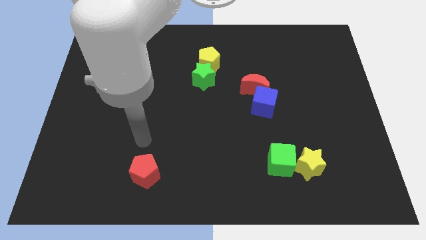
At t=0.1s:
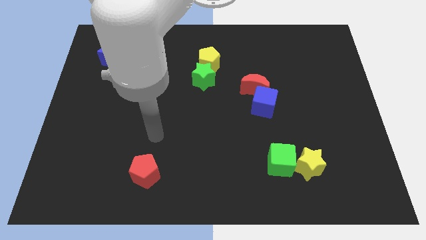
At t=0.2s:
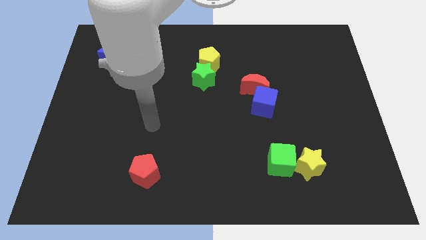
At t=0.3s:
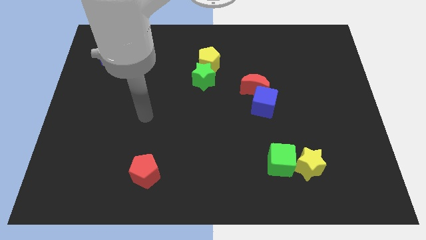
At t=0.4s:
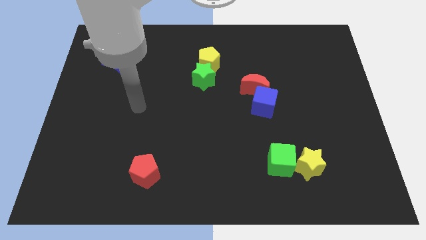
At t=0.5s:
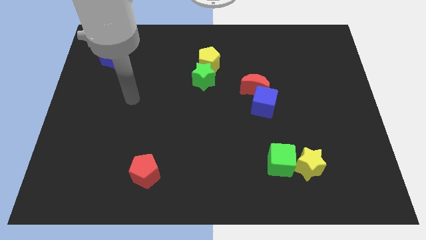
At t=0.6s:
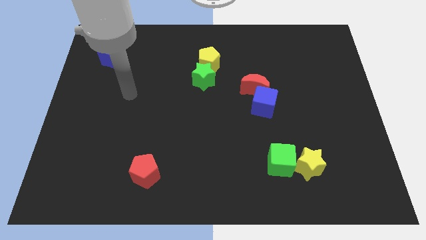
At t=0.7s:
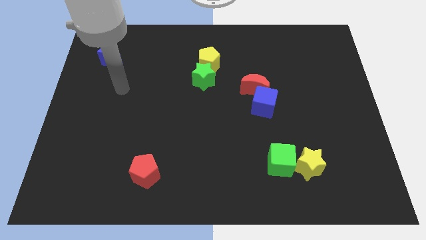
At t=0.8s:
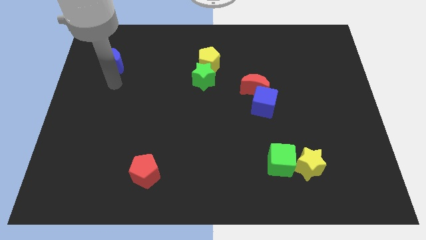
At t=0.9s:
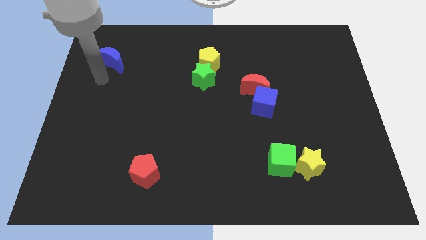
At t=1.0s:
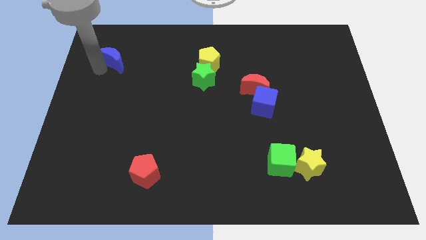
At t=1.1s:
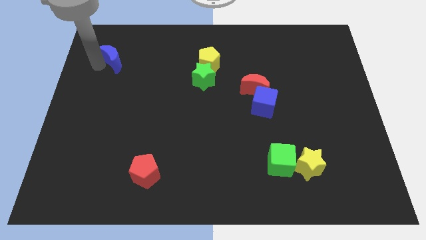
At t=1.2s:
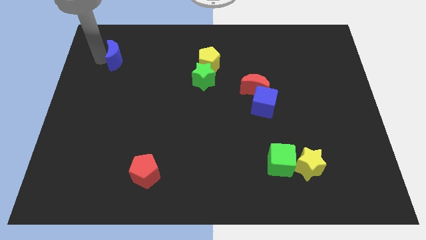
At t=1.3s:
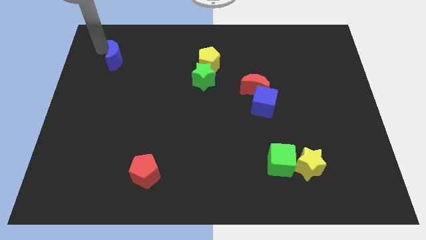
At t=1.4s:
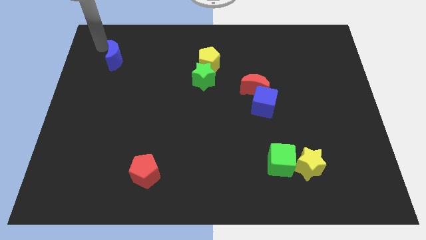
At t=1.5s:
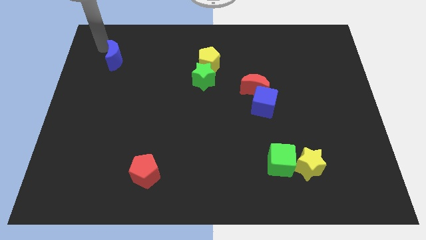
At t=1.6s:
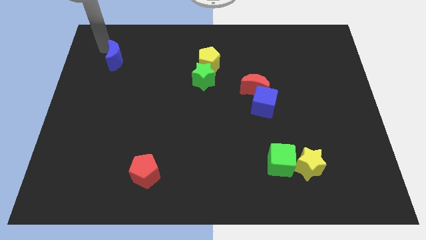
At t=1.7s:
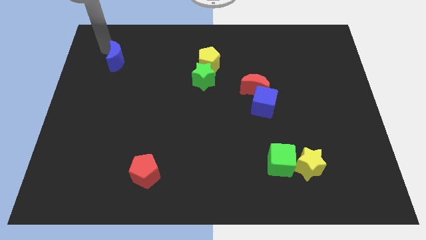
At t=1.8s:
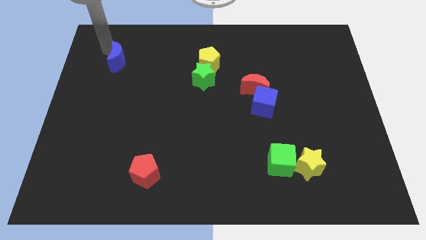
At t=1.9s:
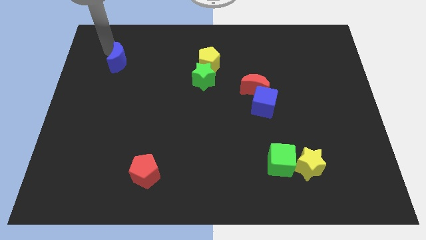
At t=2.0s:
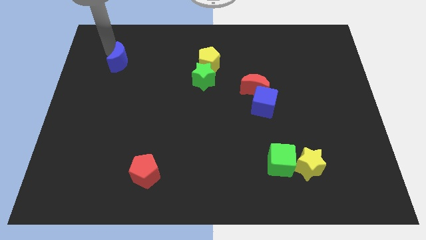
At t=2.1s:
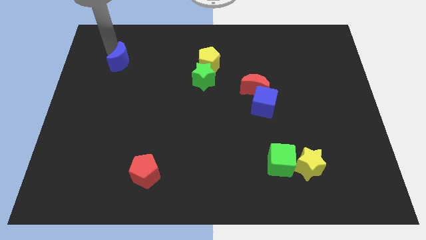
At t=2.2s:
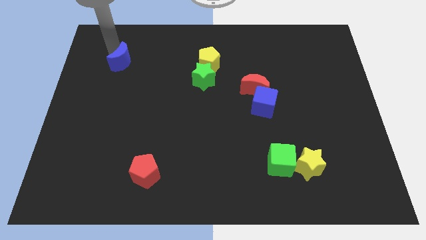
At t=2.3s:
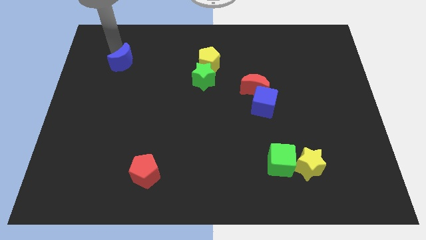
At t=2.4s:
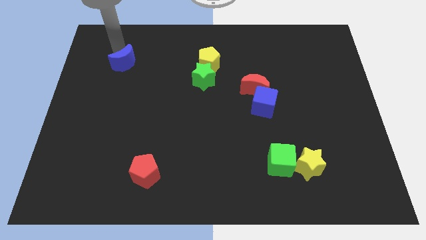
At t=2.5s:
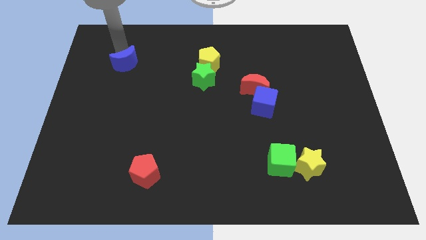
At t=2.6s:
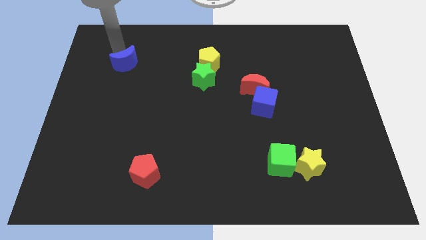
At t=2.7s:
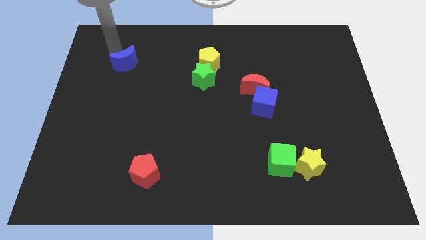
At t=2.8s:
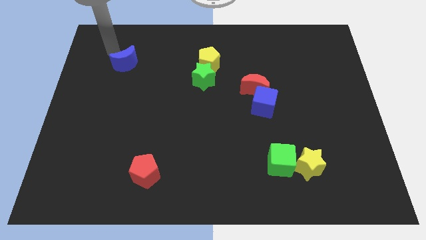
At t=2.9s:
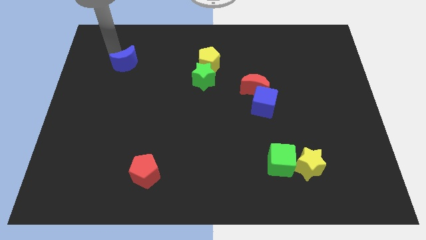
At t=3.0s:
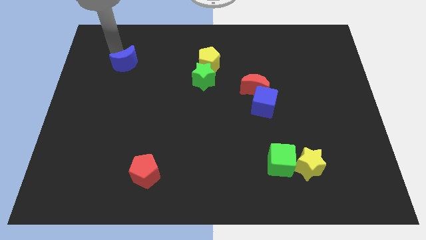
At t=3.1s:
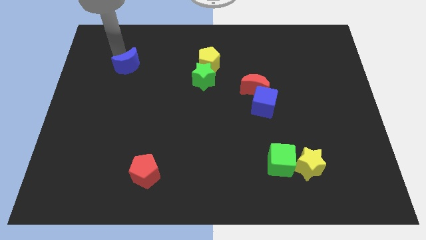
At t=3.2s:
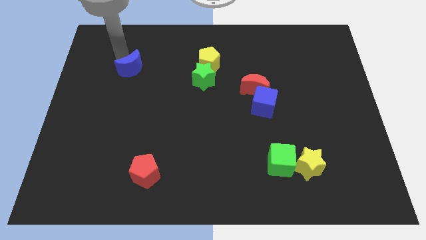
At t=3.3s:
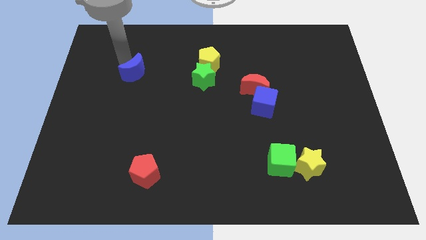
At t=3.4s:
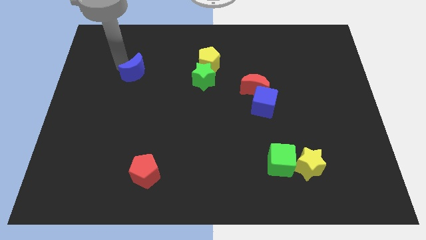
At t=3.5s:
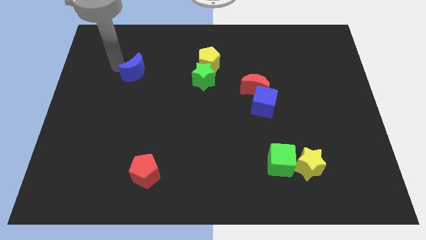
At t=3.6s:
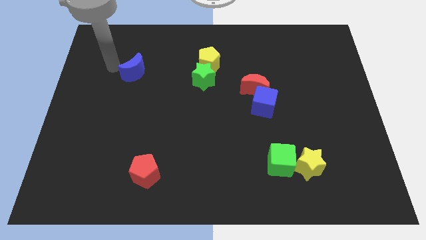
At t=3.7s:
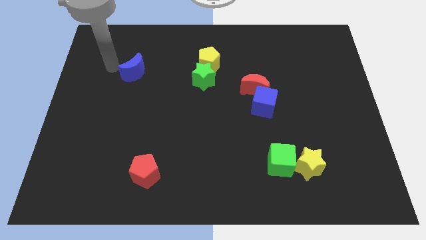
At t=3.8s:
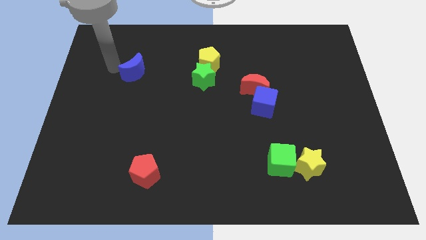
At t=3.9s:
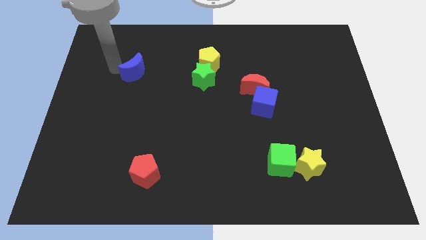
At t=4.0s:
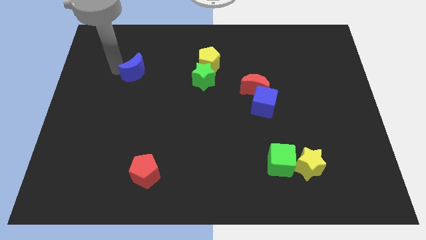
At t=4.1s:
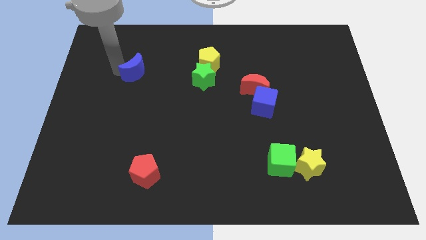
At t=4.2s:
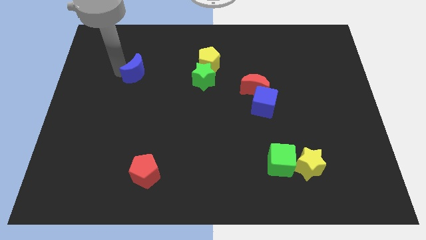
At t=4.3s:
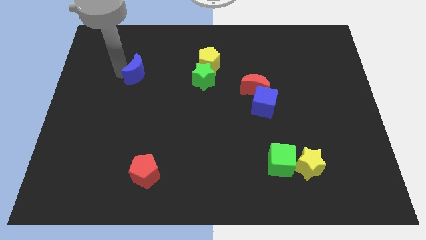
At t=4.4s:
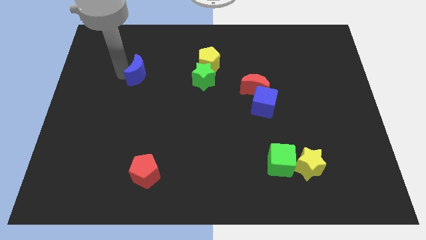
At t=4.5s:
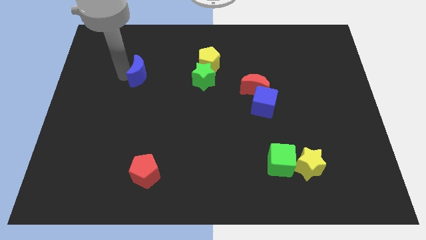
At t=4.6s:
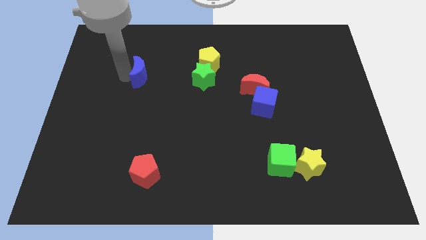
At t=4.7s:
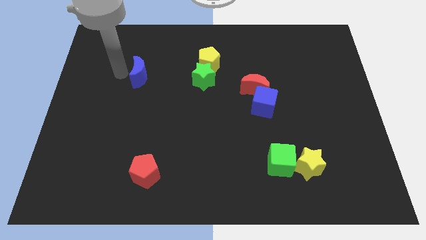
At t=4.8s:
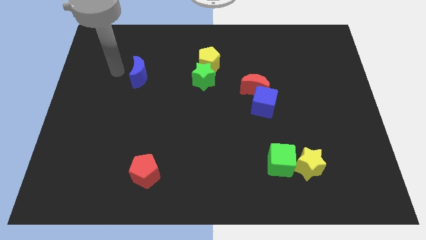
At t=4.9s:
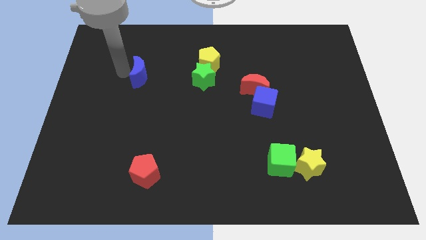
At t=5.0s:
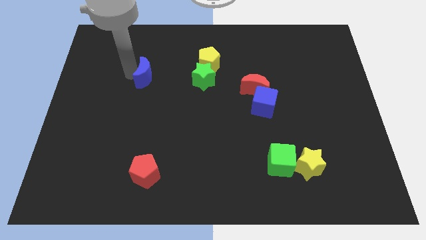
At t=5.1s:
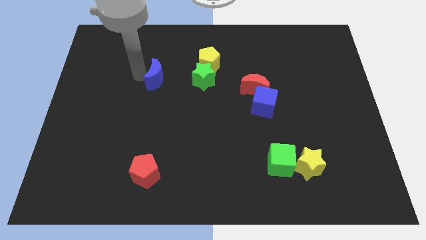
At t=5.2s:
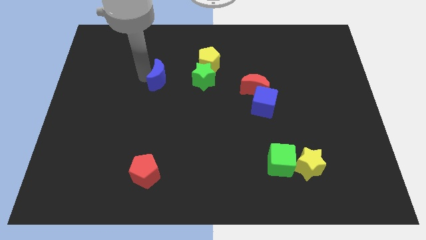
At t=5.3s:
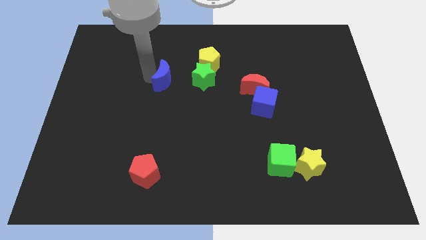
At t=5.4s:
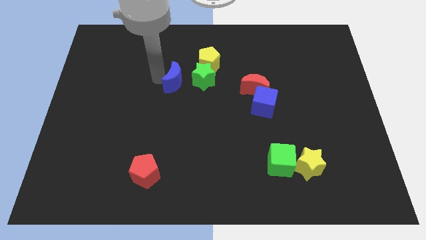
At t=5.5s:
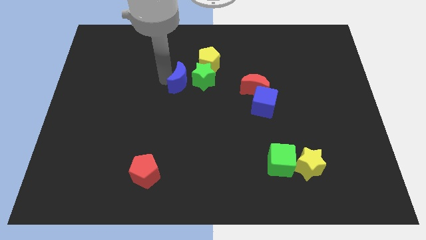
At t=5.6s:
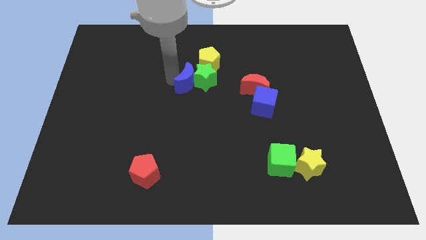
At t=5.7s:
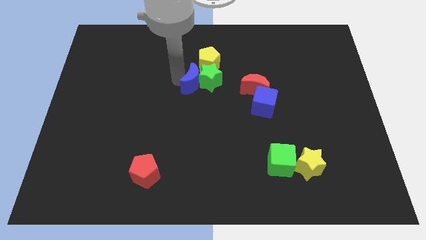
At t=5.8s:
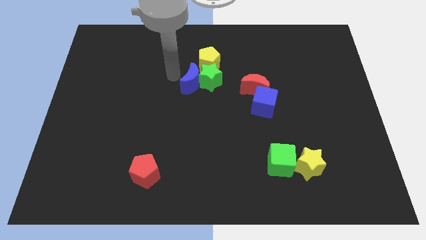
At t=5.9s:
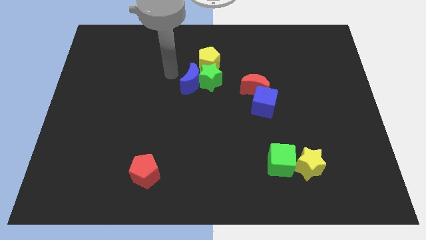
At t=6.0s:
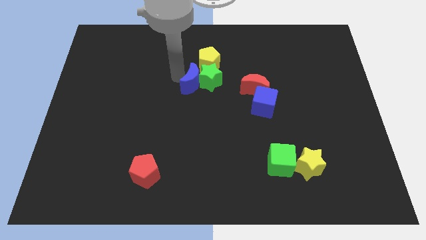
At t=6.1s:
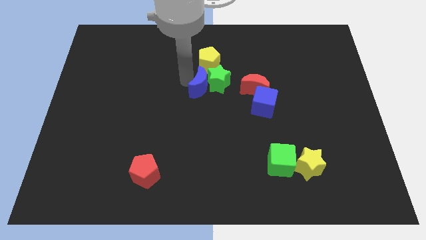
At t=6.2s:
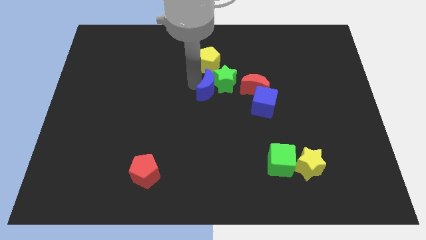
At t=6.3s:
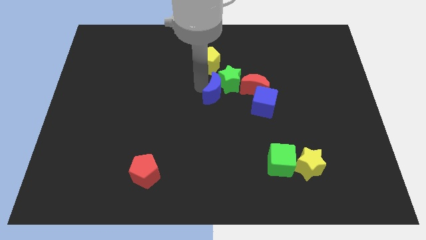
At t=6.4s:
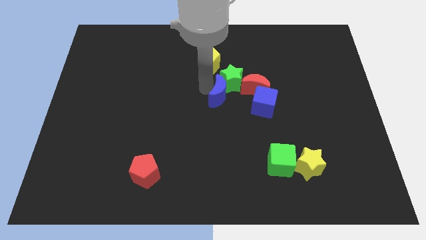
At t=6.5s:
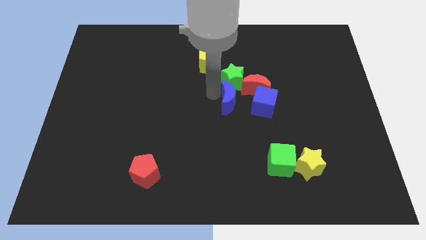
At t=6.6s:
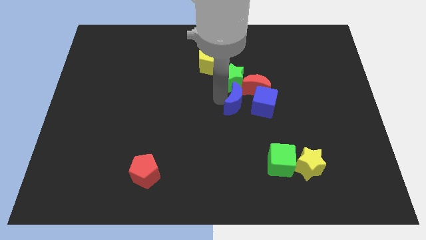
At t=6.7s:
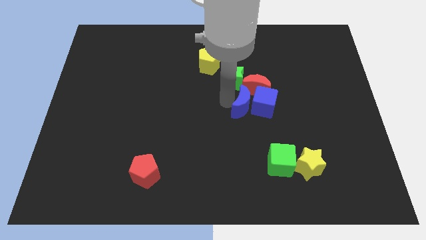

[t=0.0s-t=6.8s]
put the blue moon towards the blue cube
